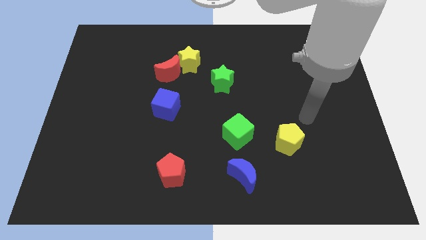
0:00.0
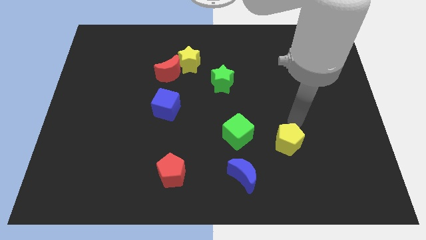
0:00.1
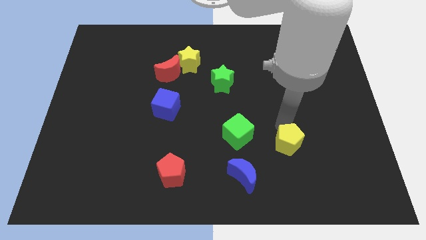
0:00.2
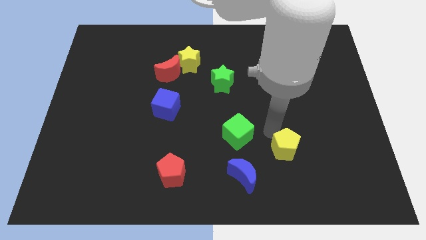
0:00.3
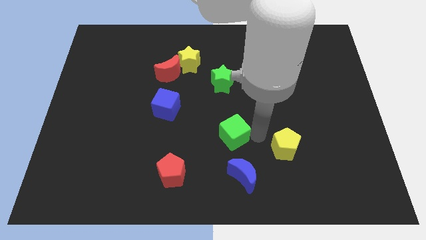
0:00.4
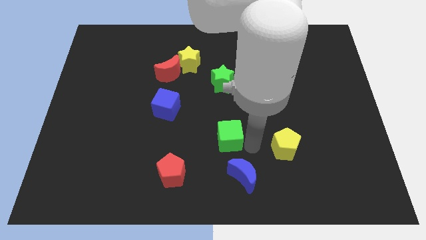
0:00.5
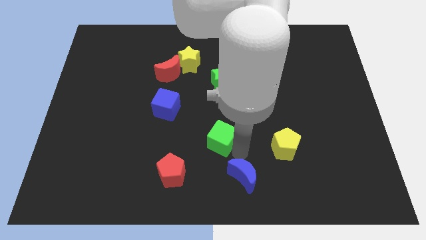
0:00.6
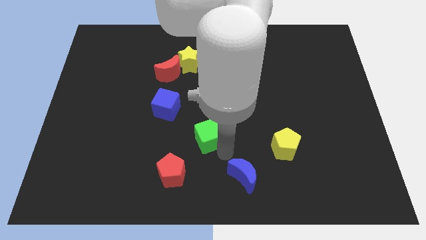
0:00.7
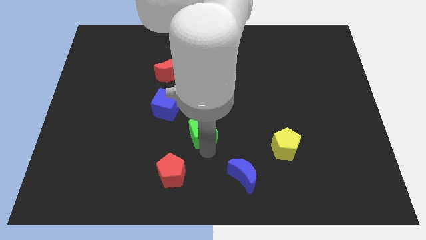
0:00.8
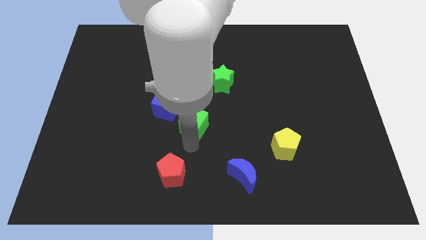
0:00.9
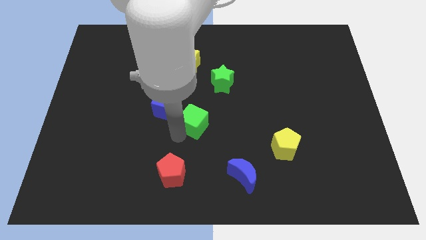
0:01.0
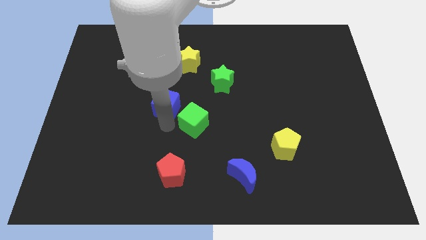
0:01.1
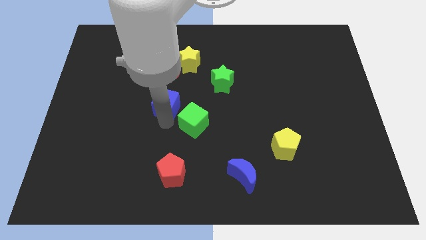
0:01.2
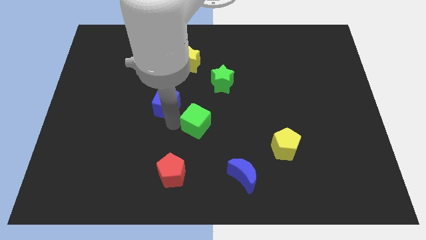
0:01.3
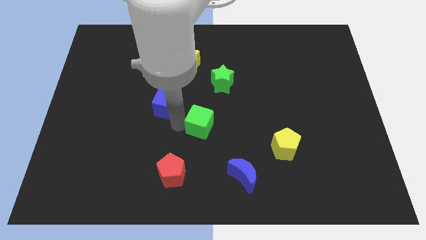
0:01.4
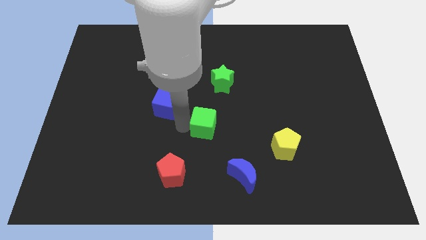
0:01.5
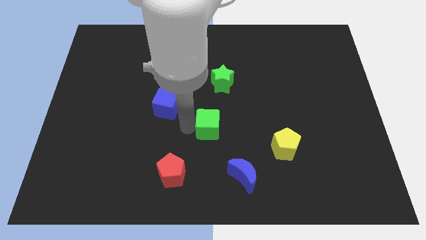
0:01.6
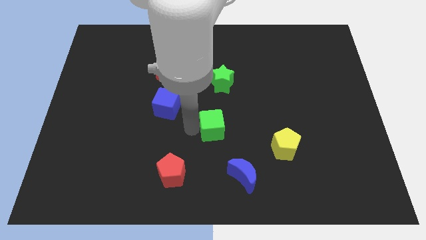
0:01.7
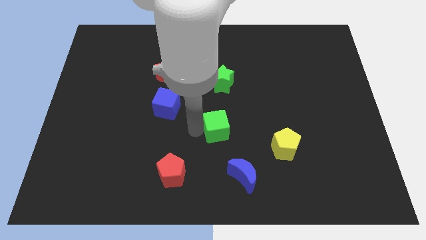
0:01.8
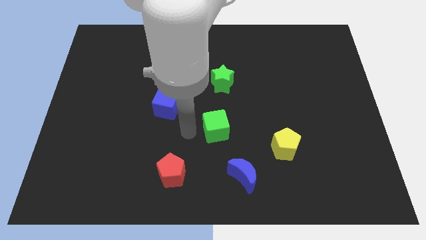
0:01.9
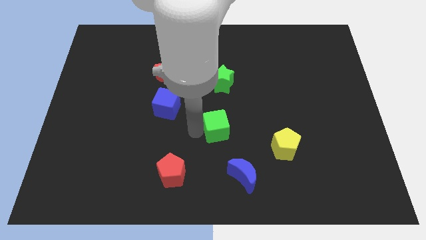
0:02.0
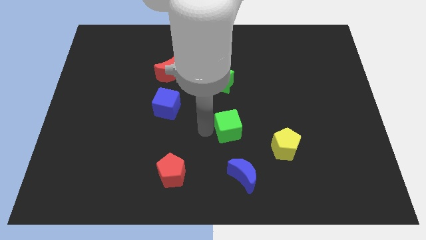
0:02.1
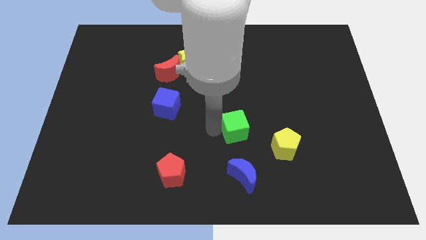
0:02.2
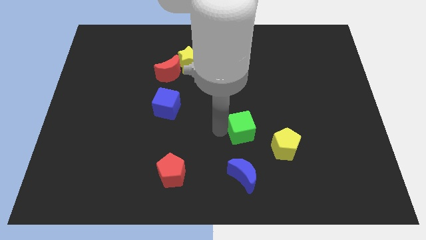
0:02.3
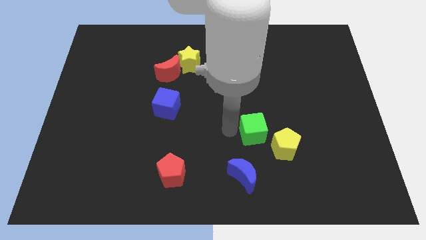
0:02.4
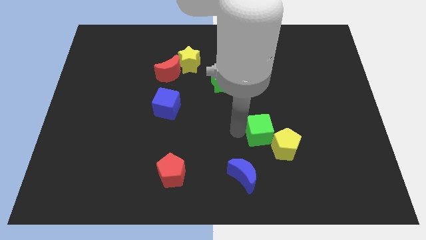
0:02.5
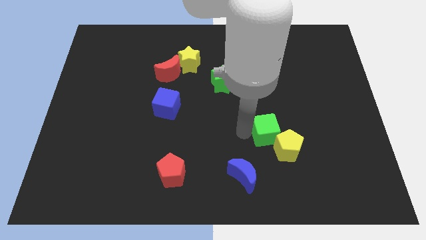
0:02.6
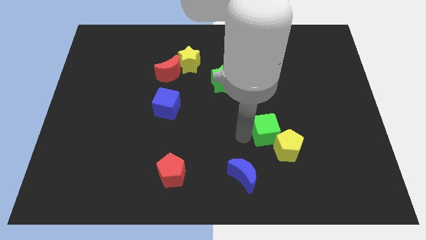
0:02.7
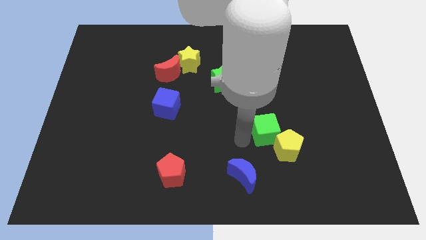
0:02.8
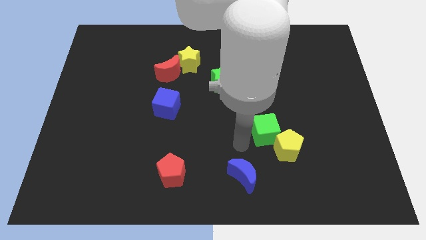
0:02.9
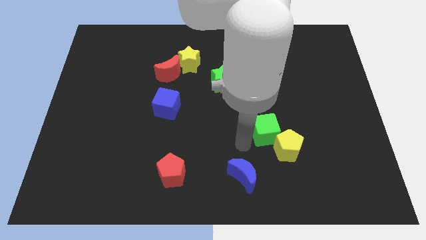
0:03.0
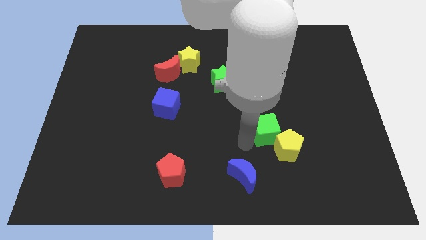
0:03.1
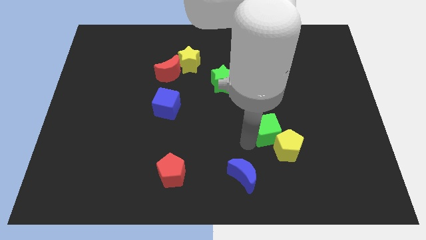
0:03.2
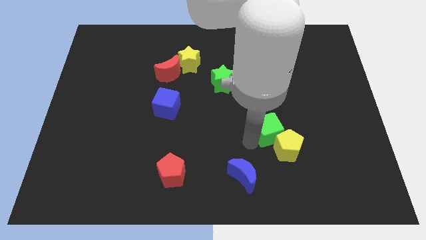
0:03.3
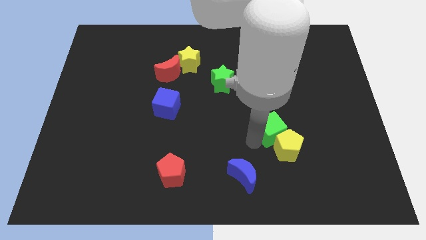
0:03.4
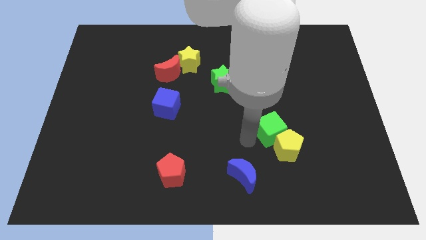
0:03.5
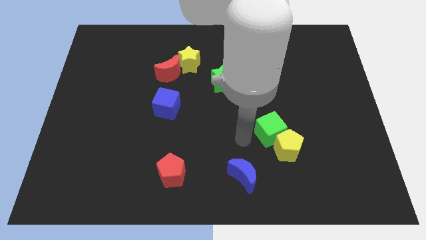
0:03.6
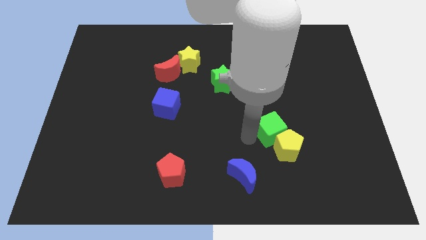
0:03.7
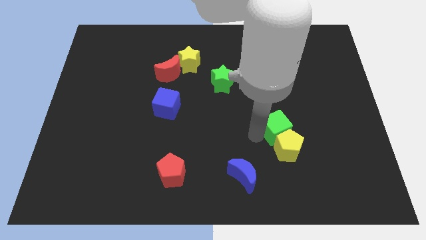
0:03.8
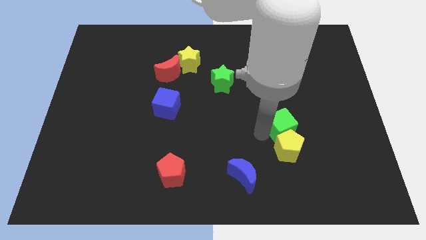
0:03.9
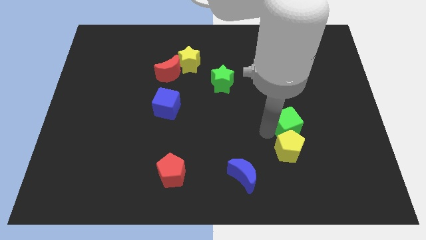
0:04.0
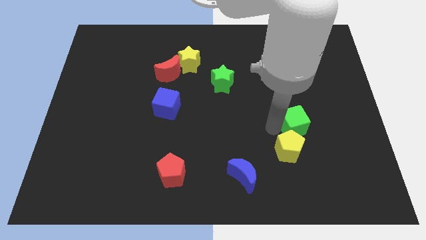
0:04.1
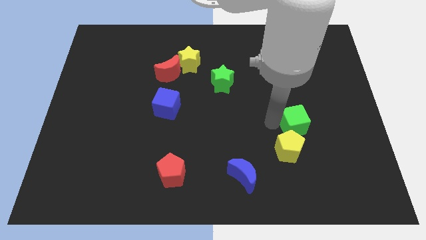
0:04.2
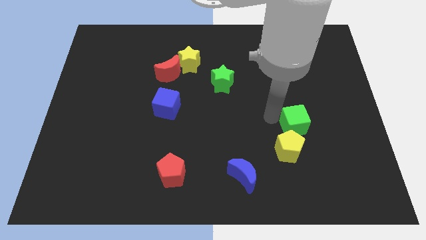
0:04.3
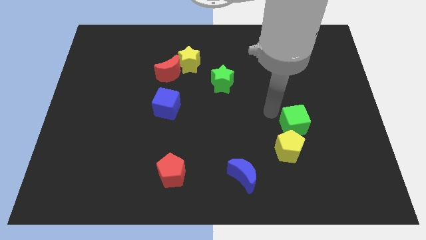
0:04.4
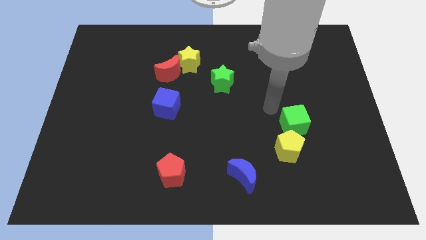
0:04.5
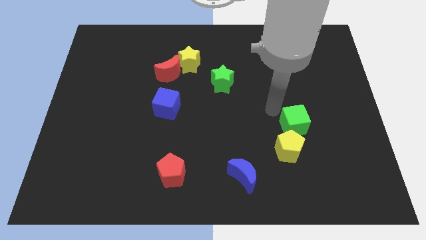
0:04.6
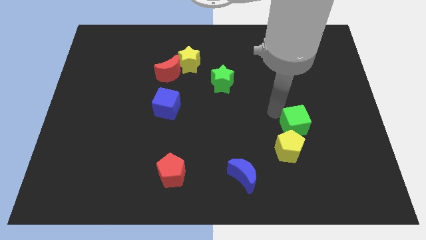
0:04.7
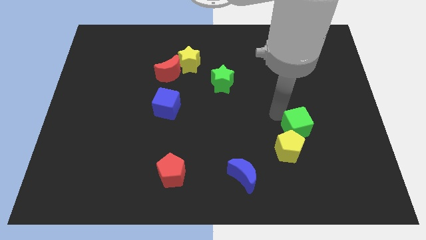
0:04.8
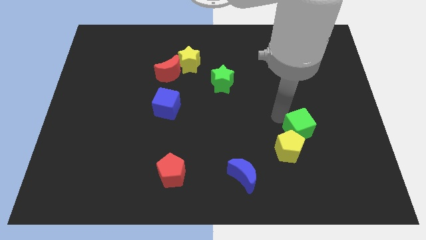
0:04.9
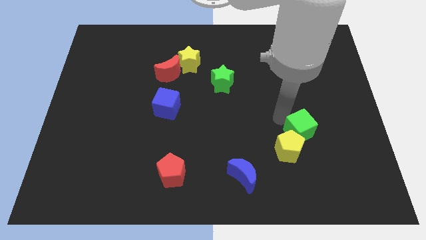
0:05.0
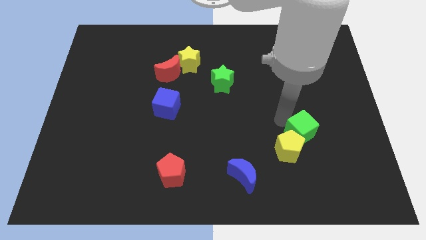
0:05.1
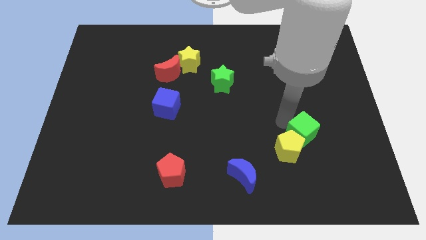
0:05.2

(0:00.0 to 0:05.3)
move the green cube right of the yellow pentagon

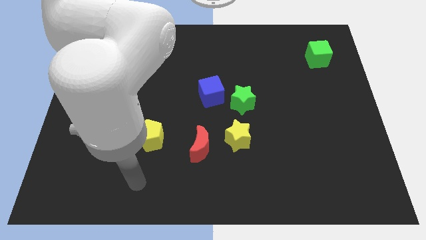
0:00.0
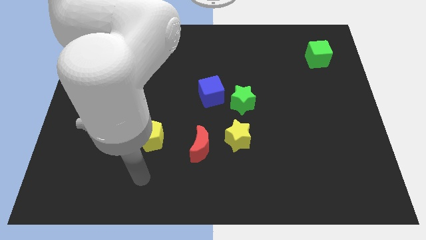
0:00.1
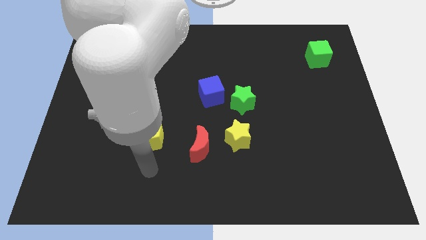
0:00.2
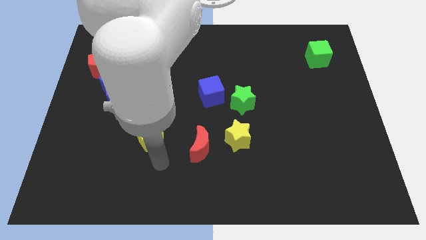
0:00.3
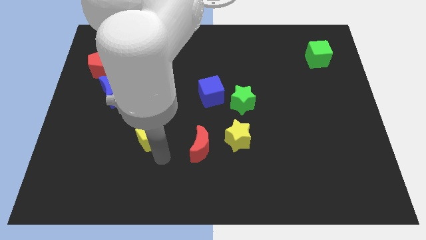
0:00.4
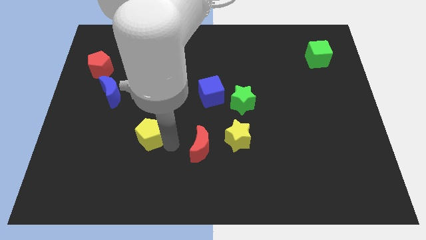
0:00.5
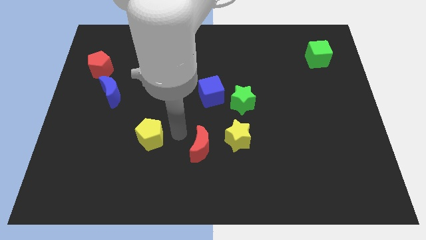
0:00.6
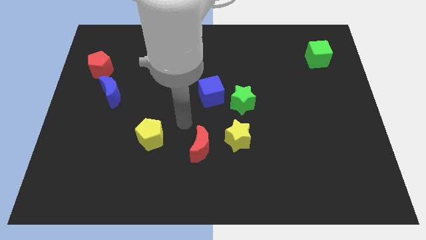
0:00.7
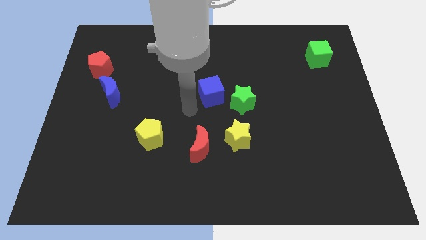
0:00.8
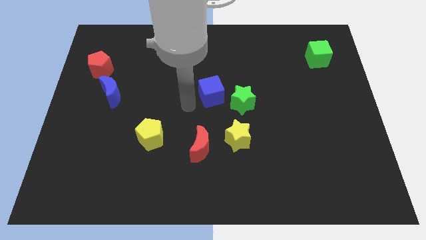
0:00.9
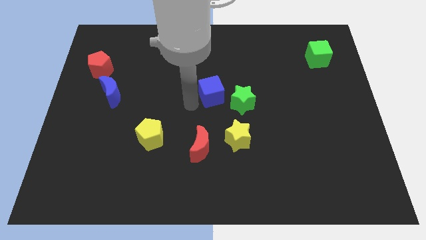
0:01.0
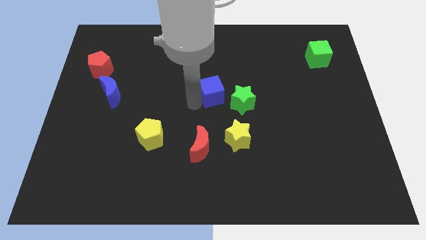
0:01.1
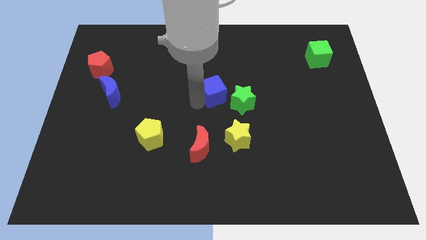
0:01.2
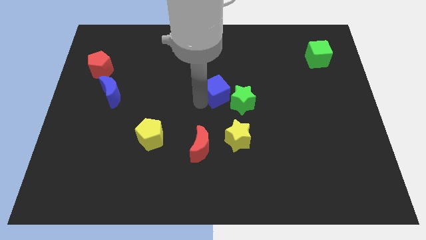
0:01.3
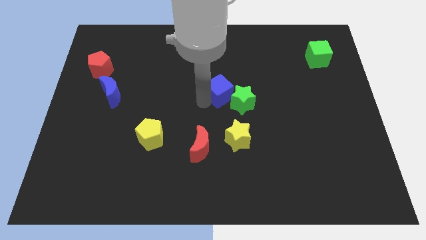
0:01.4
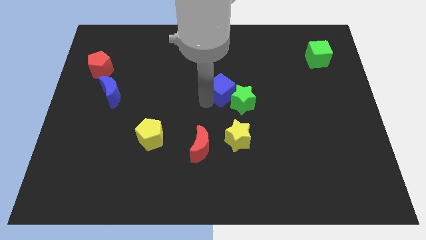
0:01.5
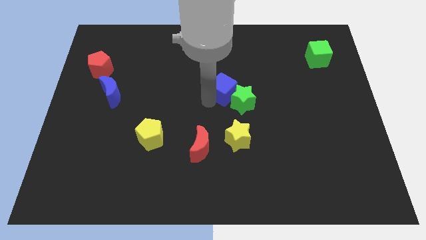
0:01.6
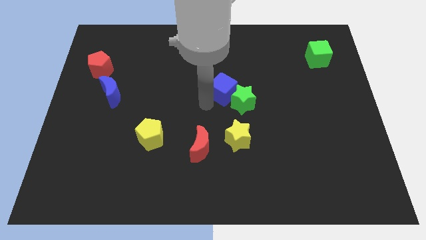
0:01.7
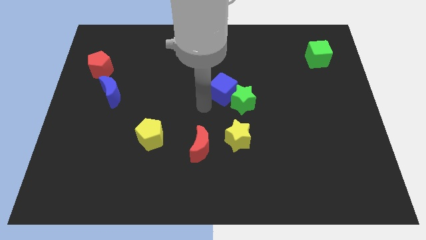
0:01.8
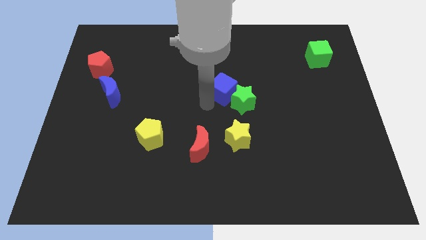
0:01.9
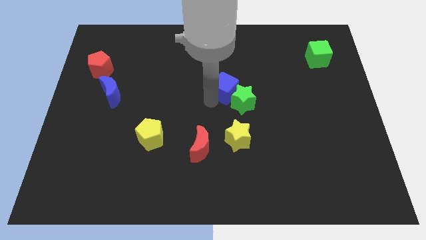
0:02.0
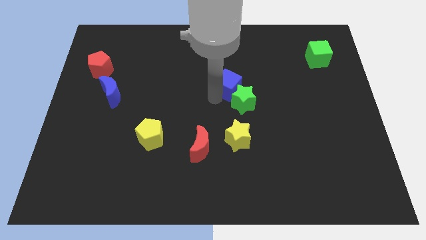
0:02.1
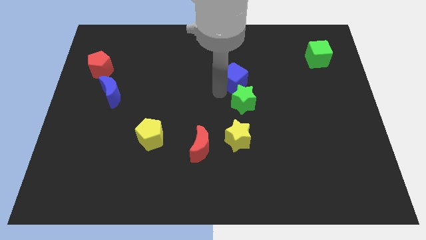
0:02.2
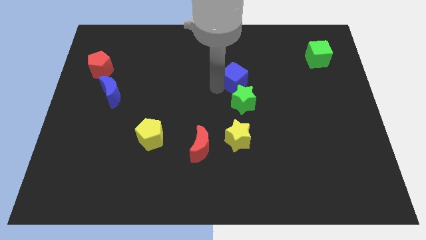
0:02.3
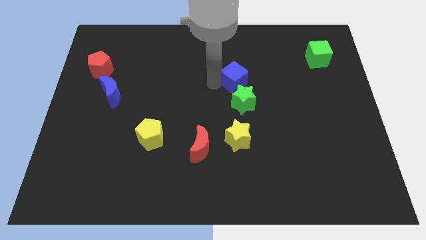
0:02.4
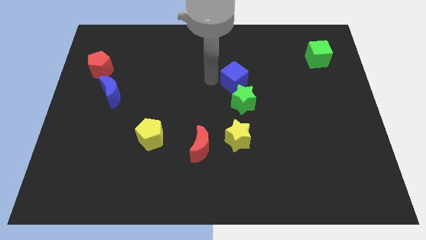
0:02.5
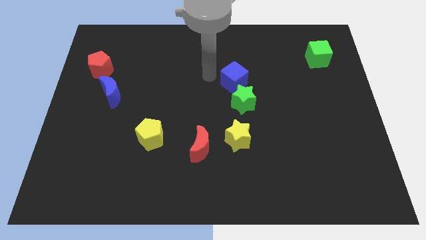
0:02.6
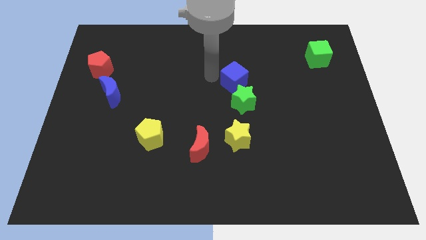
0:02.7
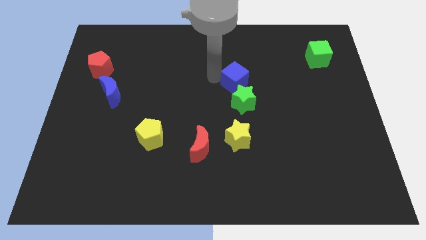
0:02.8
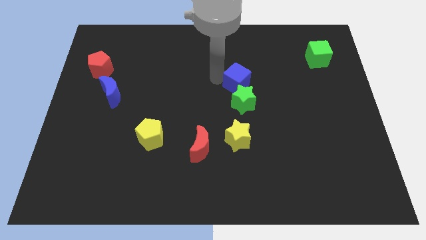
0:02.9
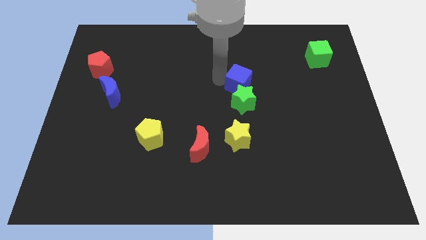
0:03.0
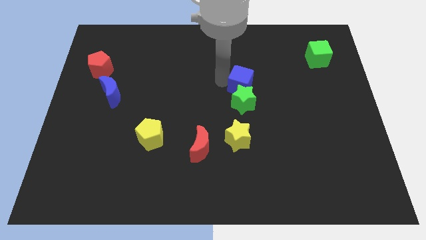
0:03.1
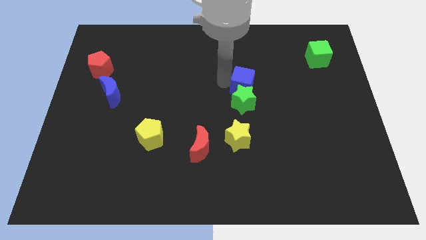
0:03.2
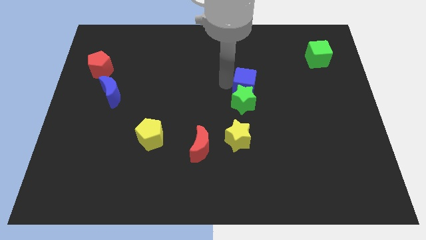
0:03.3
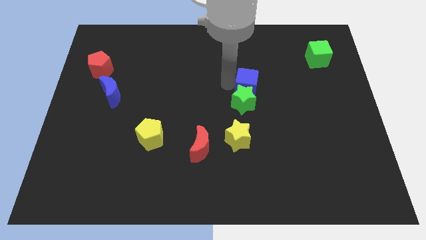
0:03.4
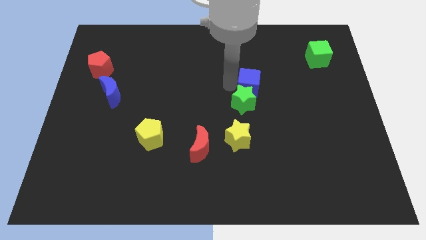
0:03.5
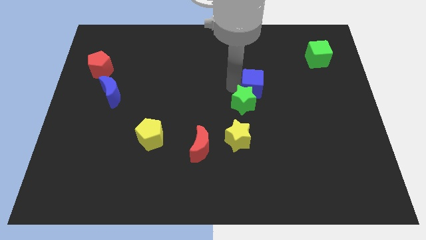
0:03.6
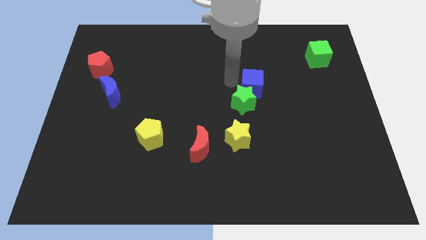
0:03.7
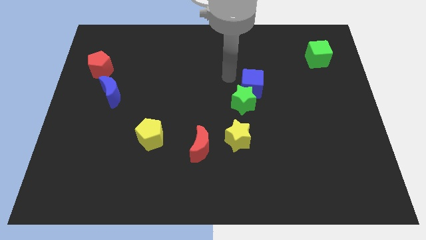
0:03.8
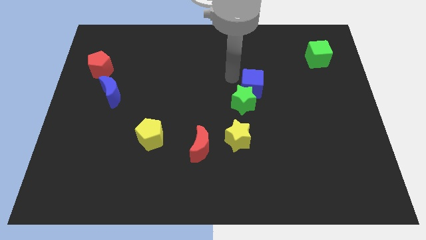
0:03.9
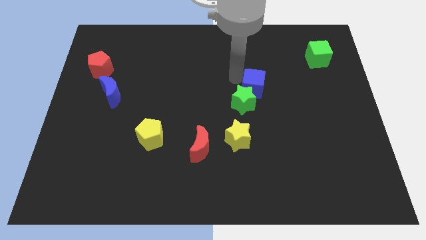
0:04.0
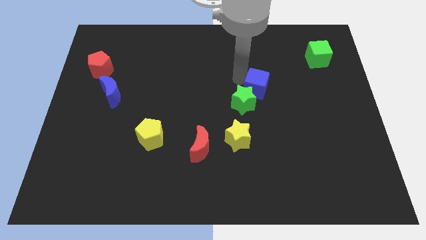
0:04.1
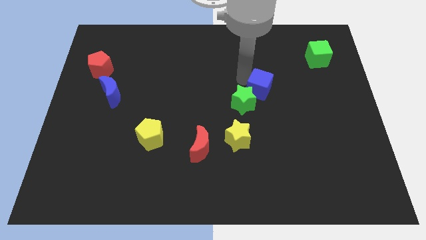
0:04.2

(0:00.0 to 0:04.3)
put the blue cube right of the green star
